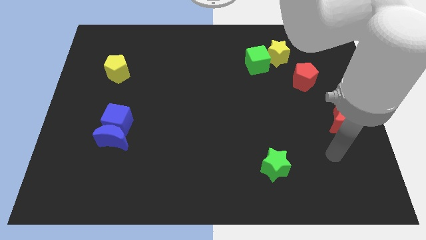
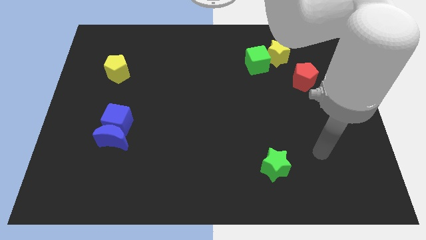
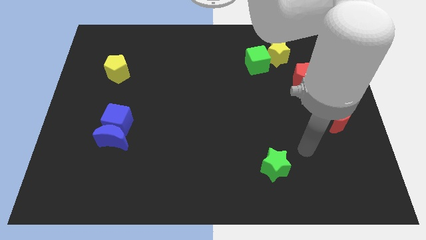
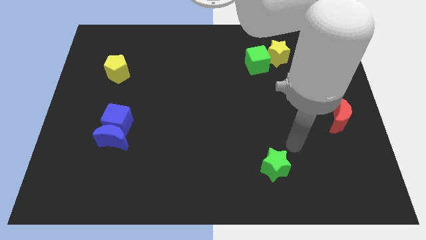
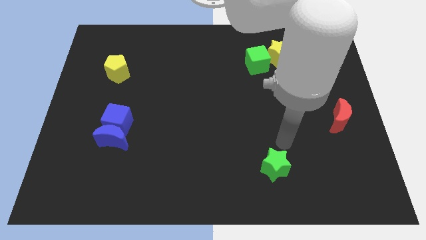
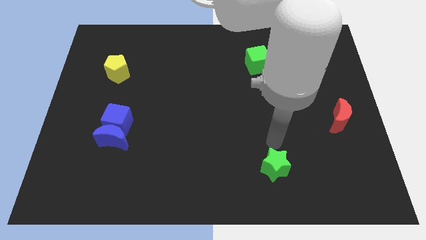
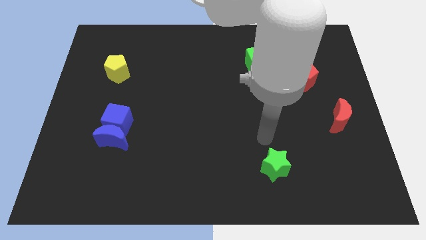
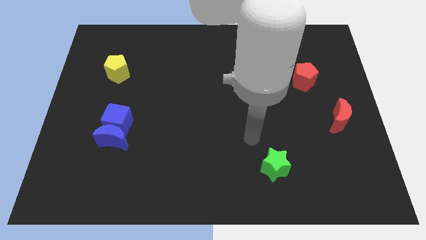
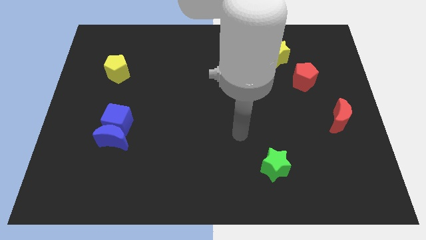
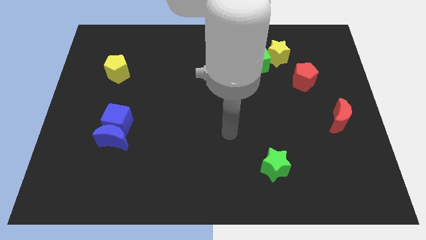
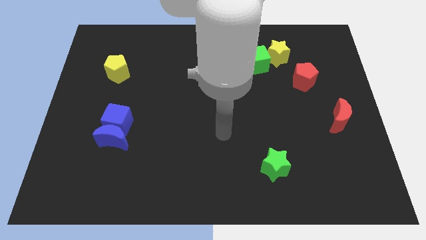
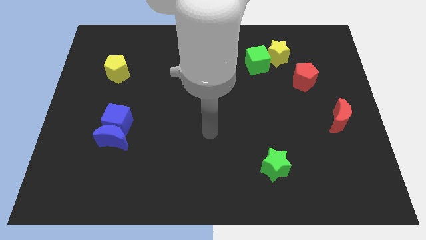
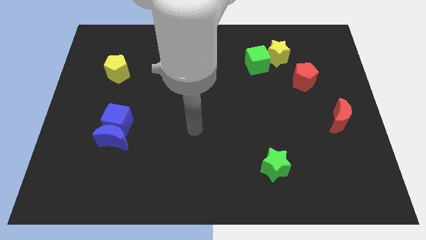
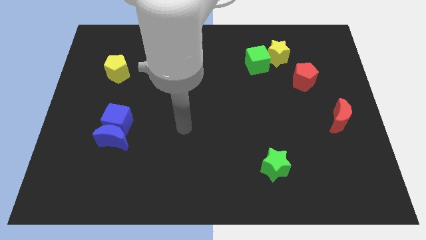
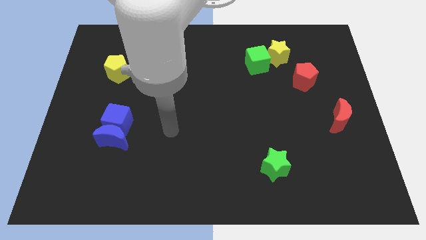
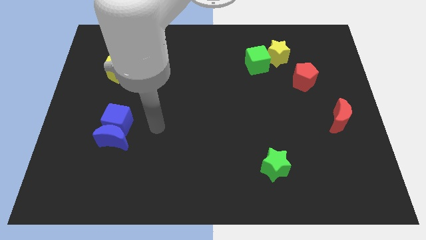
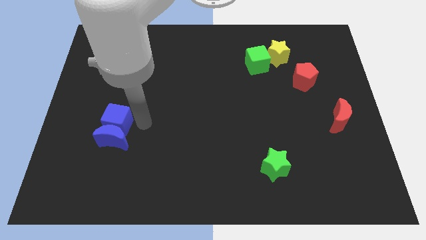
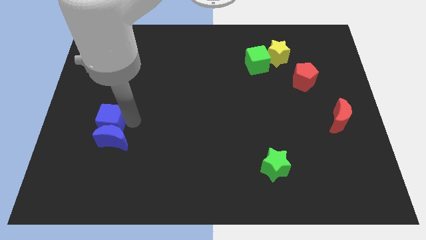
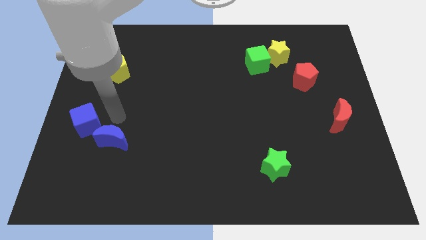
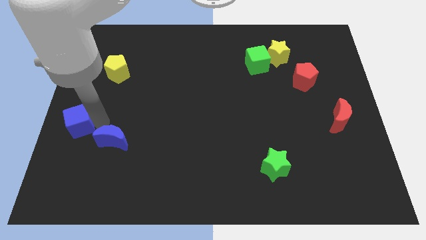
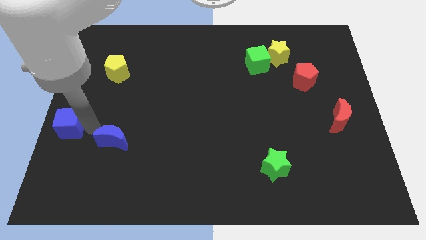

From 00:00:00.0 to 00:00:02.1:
separate the blue moon from the blue cube

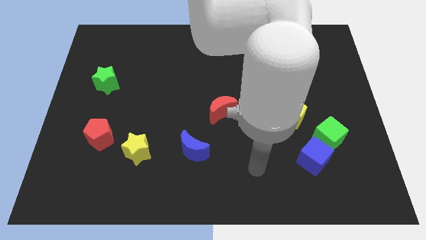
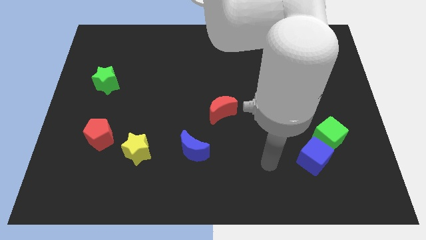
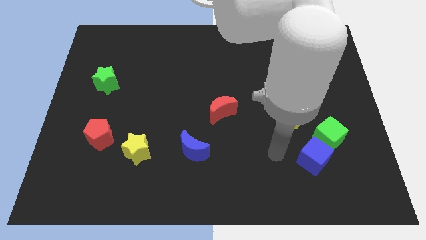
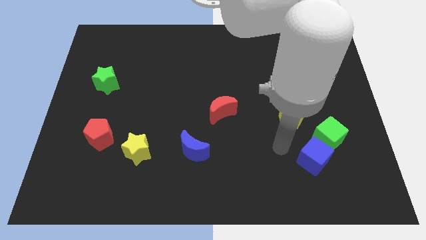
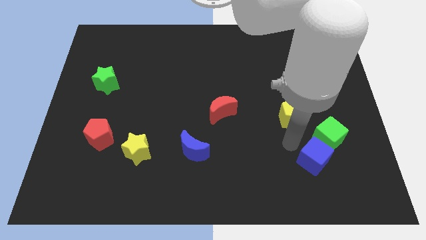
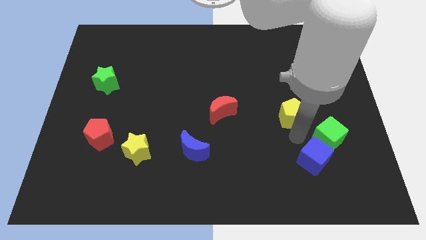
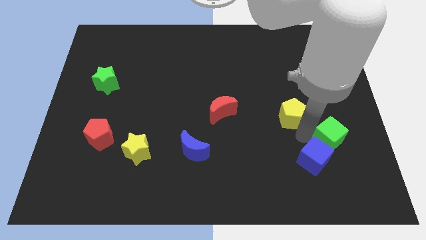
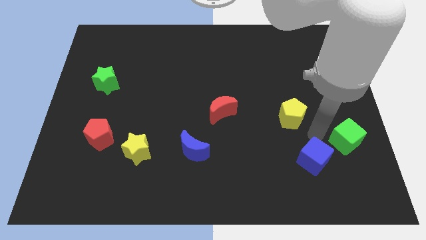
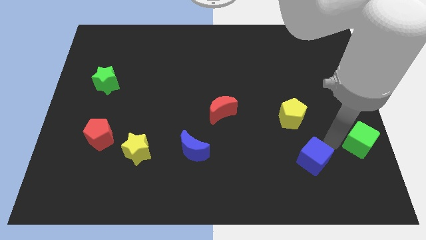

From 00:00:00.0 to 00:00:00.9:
pull the blue cube apart from the green cube

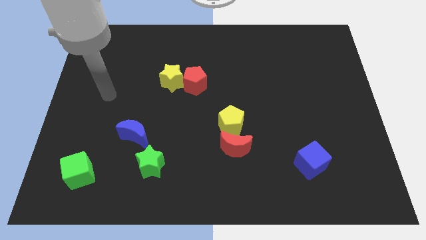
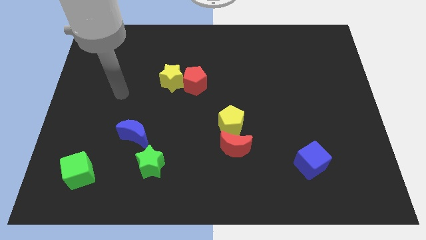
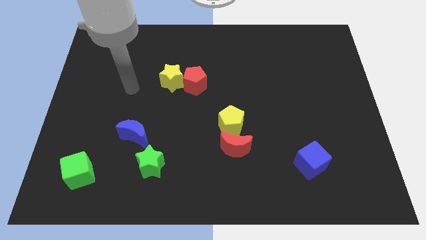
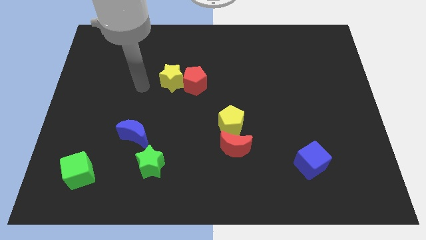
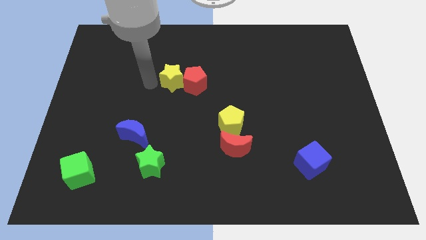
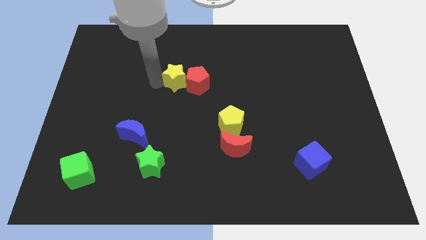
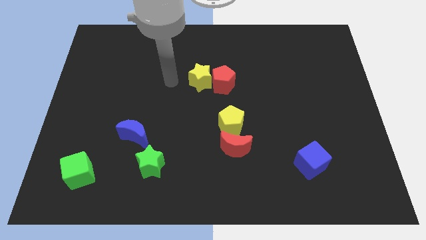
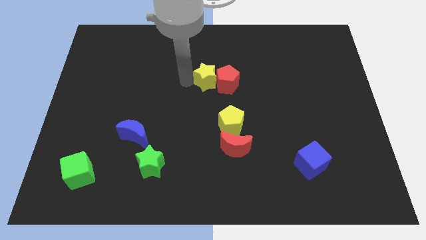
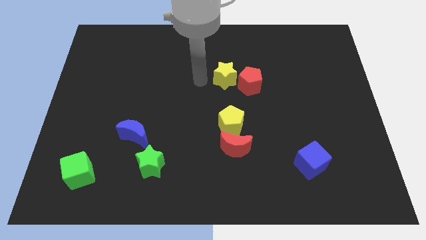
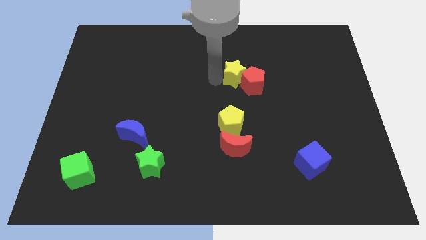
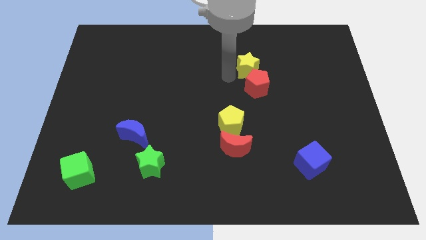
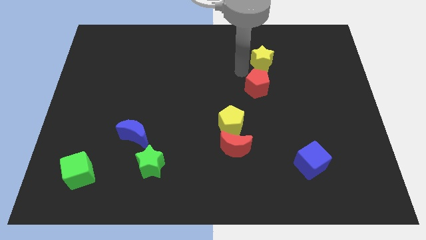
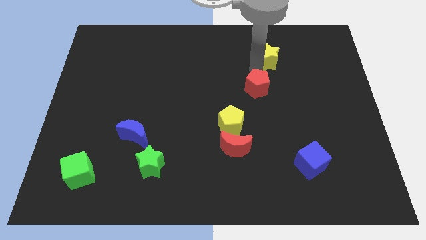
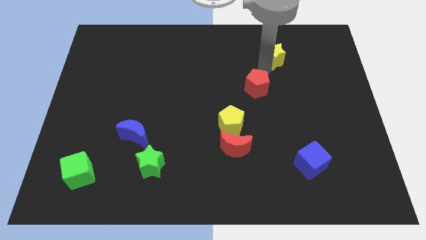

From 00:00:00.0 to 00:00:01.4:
pull the red pentagon apart from the yellow star

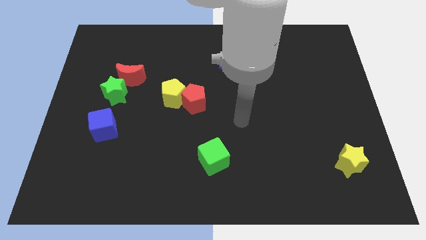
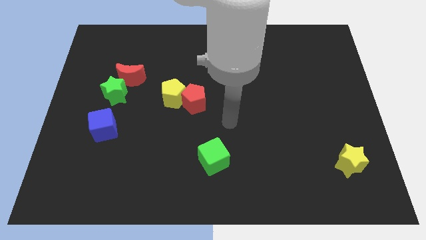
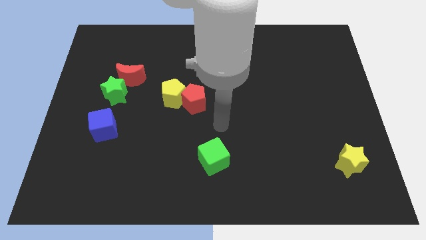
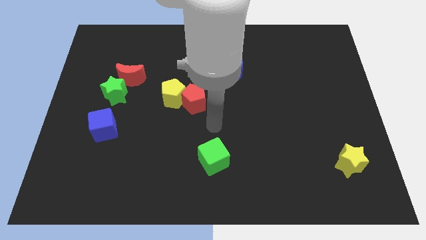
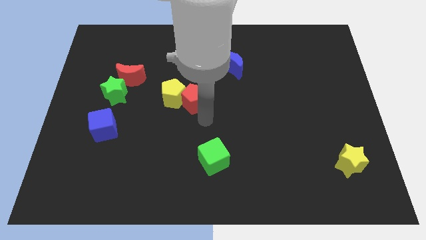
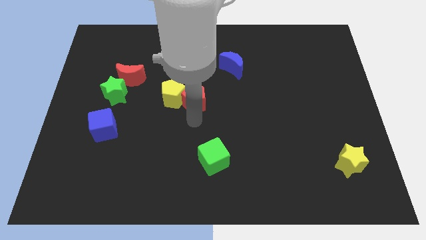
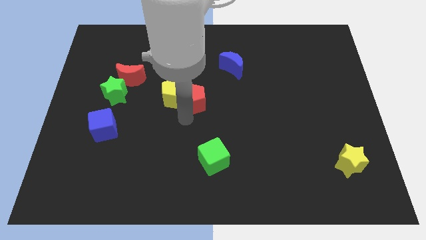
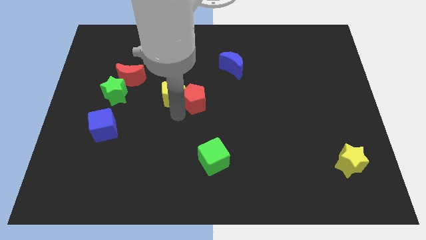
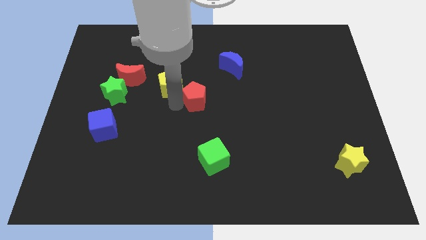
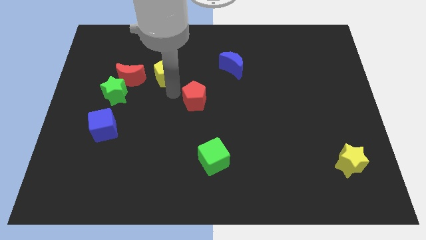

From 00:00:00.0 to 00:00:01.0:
separate the red pentagon from the yellow pentagon

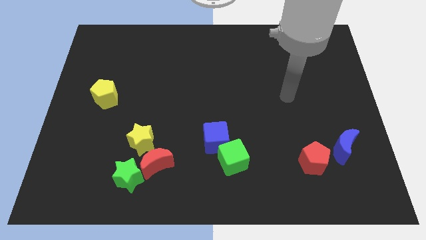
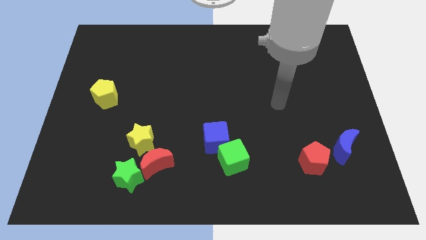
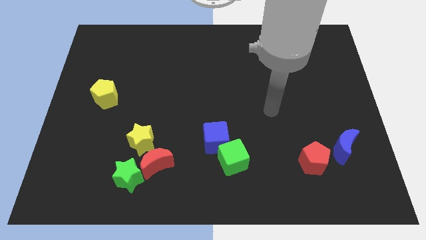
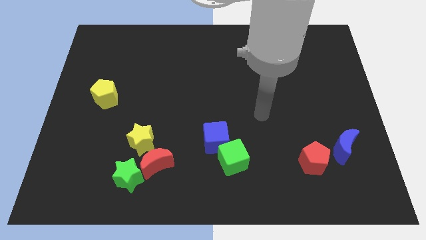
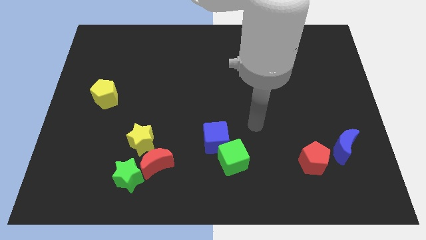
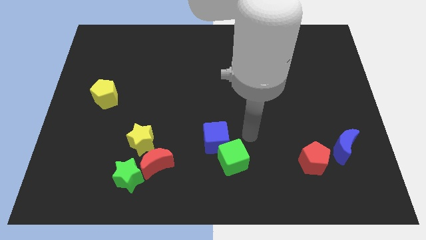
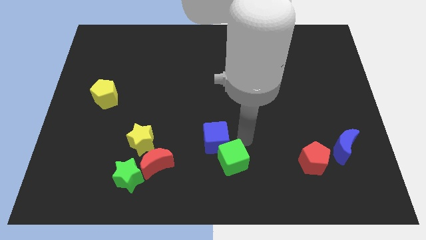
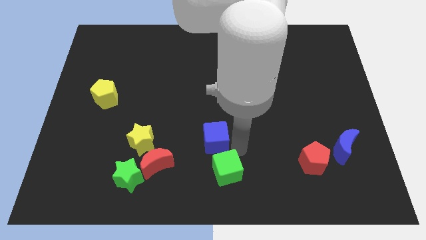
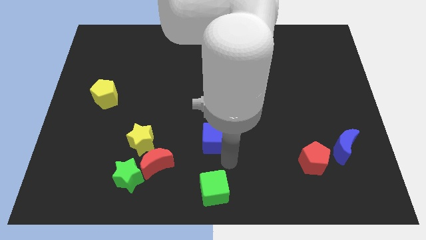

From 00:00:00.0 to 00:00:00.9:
move the blue cube away from the green cube

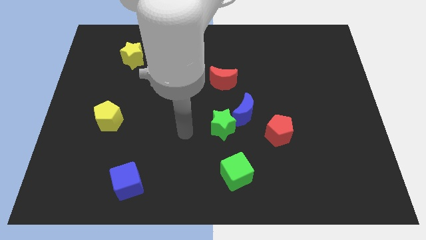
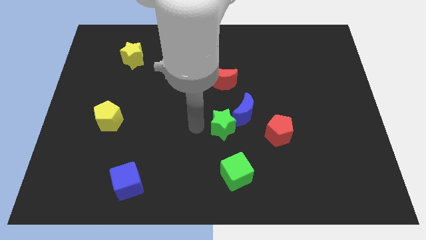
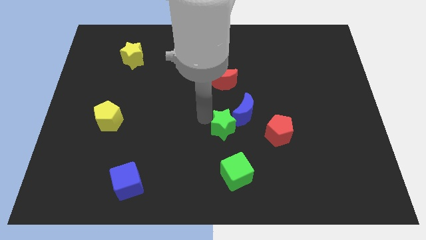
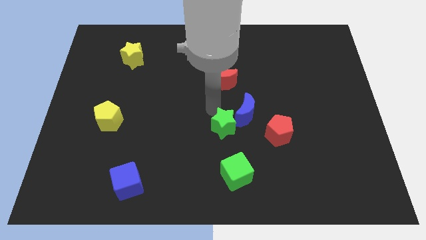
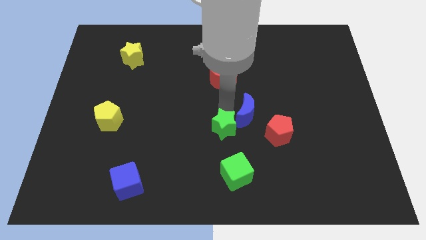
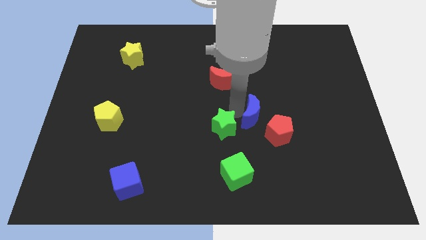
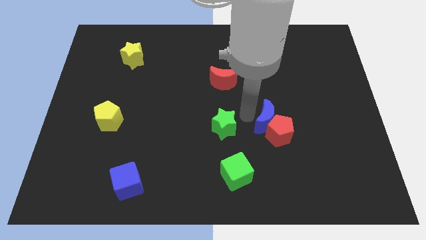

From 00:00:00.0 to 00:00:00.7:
separate the green star from the blue moon

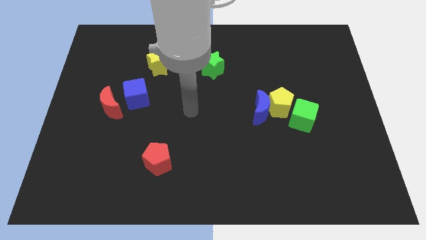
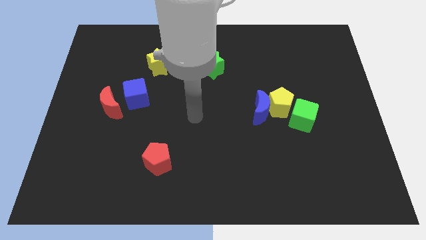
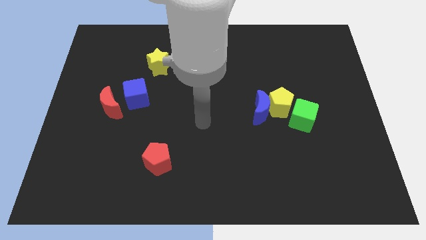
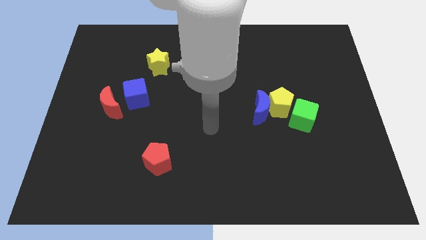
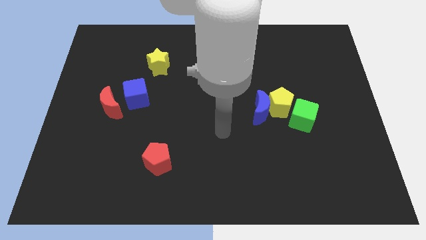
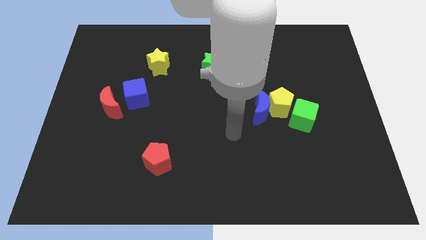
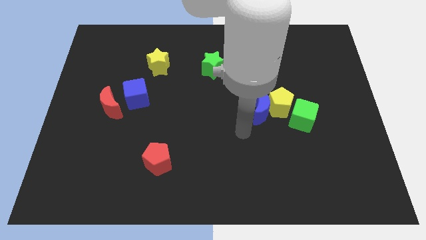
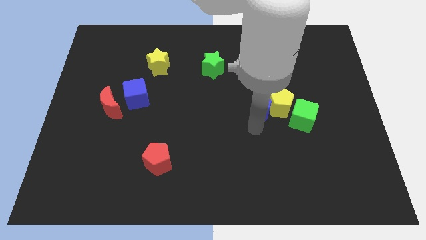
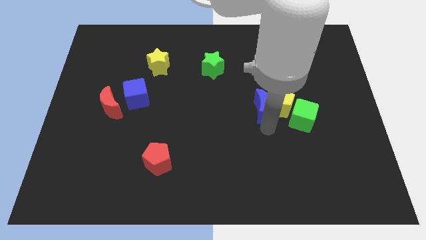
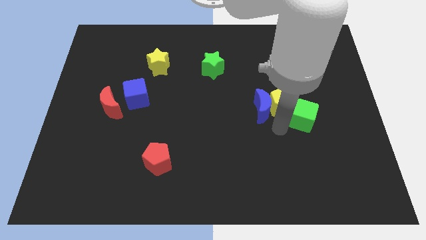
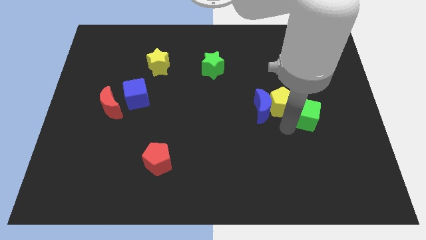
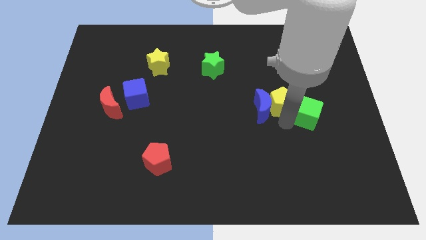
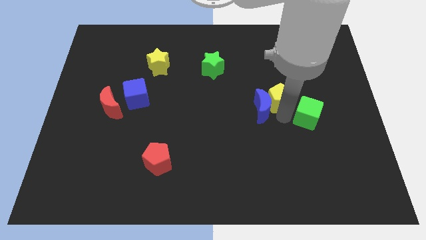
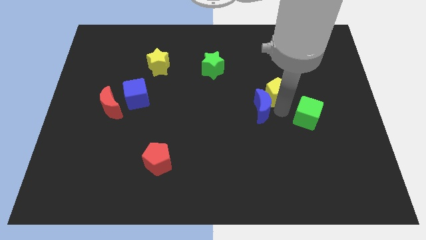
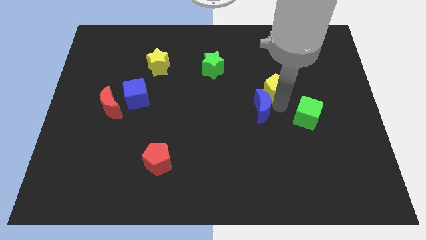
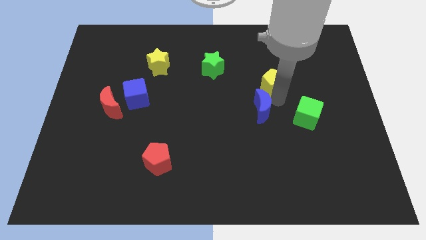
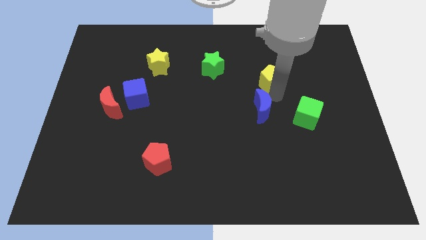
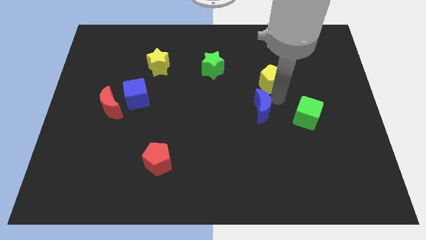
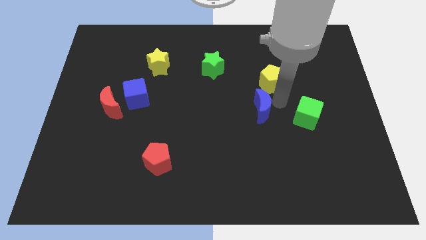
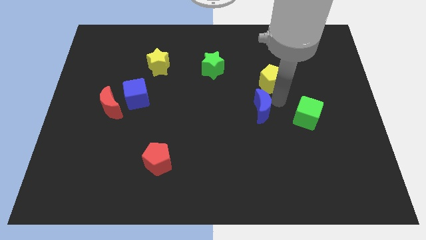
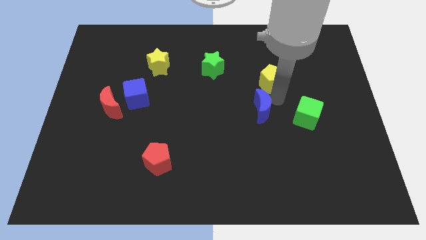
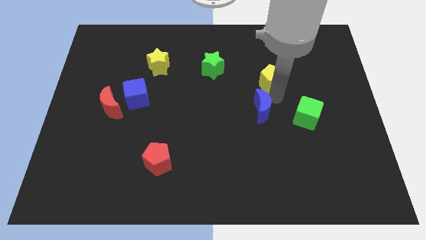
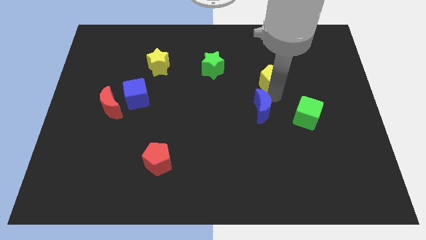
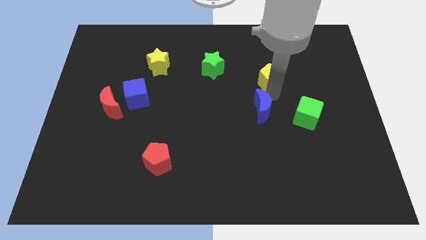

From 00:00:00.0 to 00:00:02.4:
separate the yellow pentagon from the blue moon and green cube
